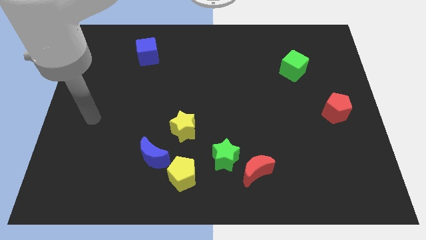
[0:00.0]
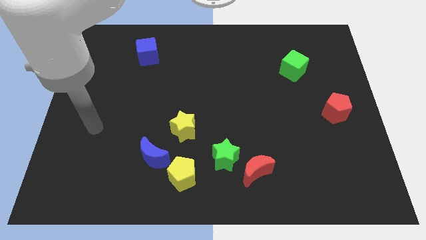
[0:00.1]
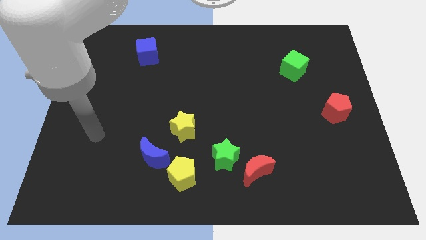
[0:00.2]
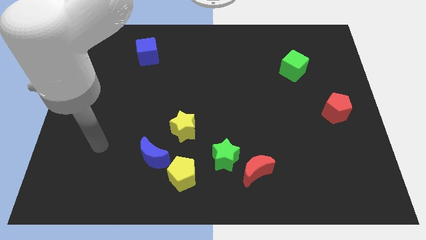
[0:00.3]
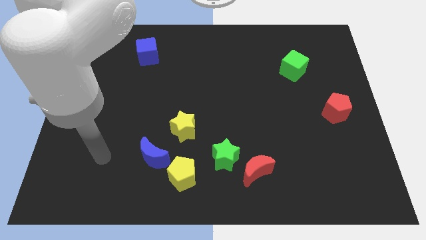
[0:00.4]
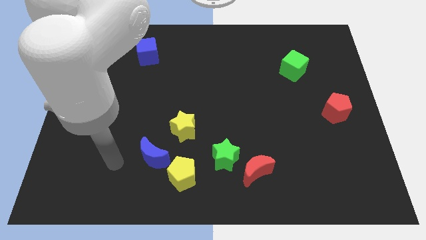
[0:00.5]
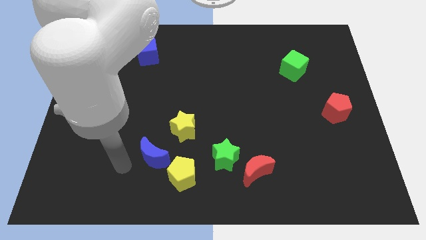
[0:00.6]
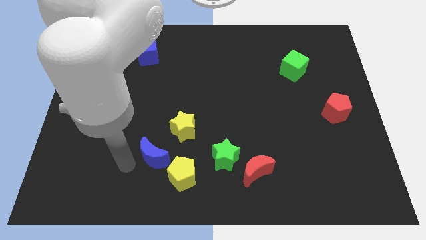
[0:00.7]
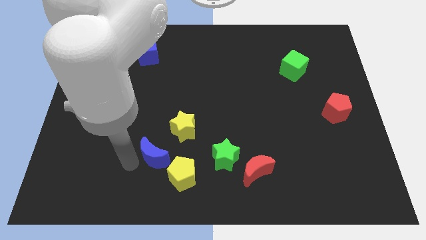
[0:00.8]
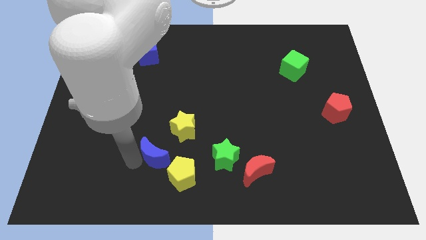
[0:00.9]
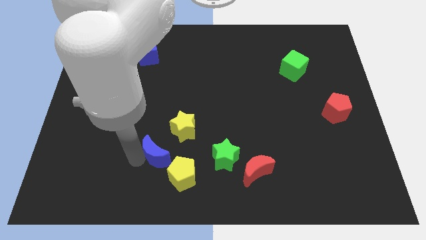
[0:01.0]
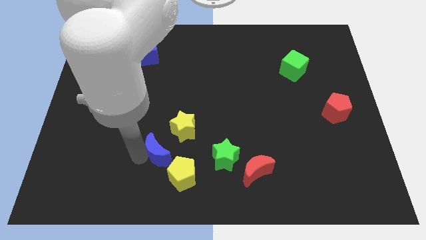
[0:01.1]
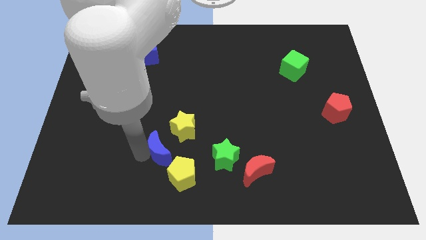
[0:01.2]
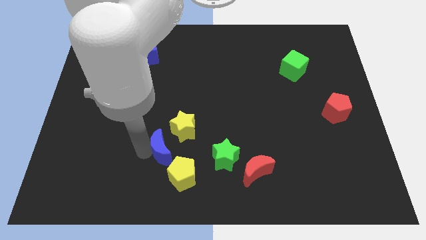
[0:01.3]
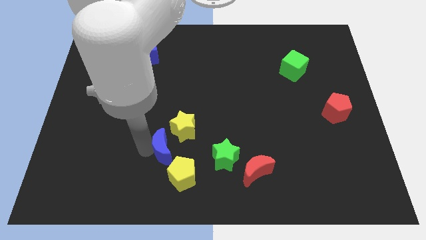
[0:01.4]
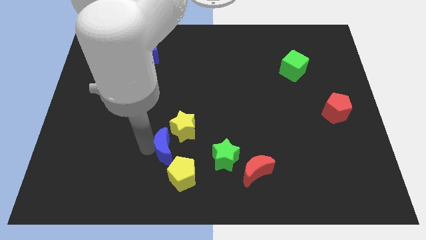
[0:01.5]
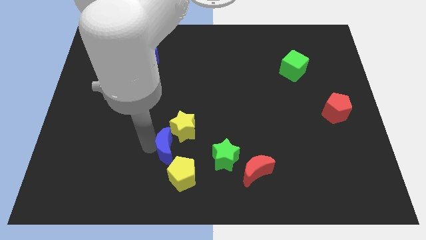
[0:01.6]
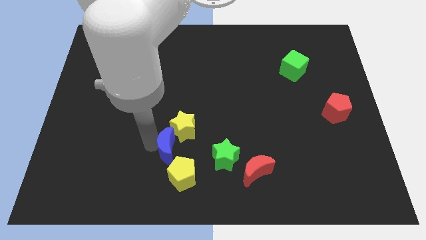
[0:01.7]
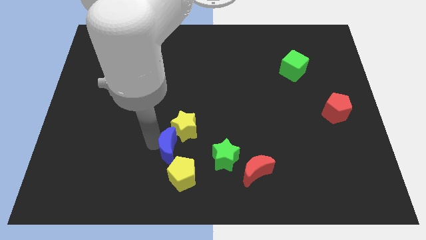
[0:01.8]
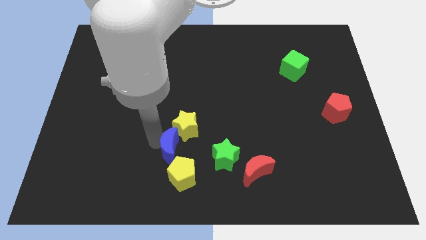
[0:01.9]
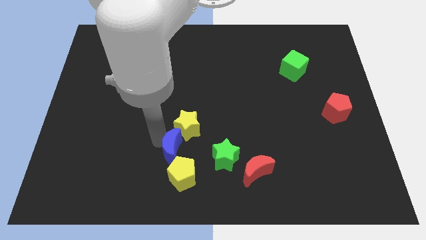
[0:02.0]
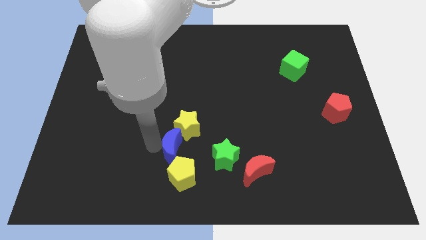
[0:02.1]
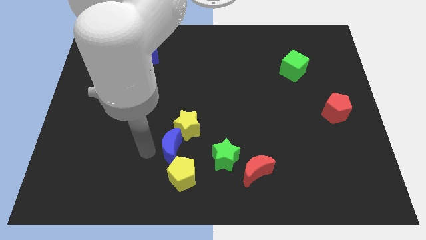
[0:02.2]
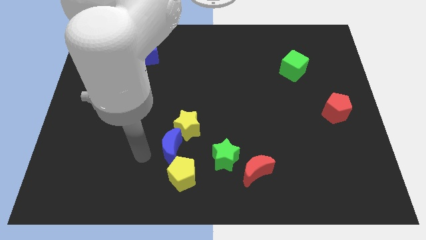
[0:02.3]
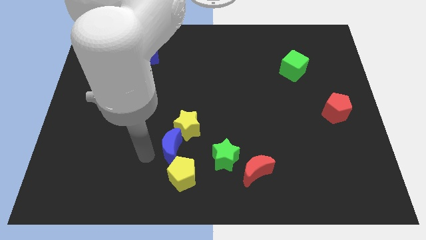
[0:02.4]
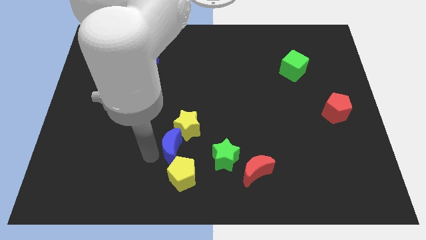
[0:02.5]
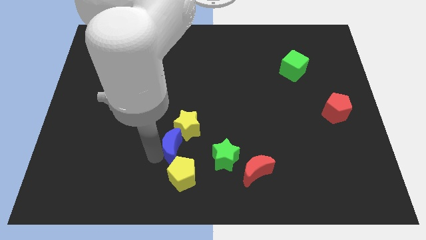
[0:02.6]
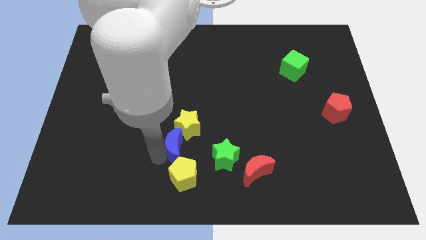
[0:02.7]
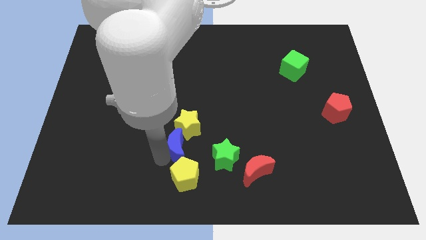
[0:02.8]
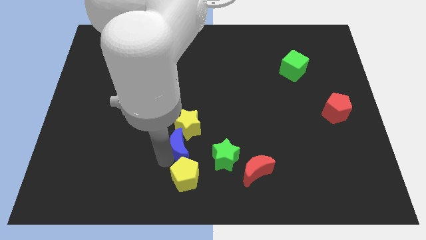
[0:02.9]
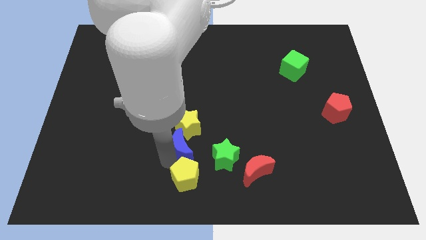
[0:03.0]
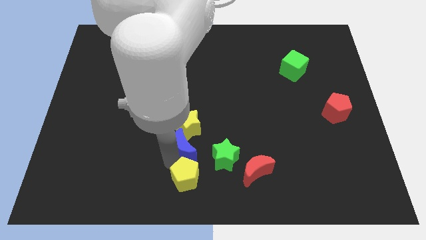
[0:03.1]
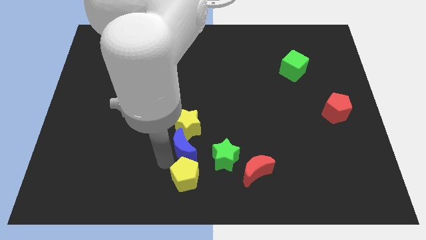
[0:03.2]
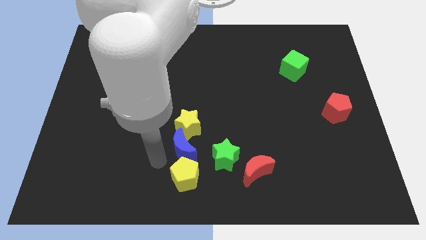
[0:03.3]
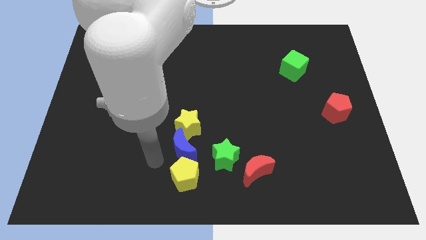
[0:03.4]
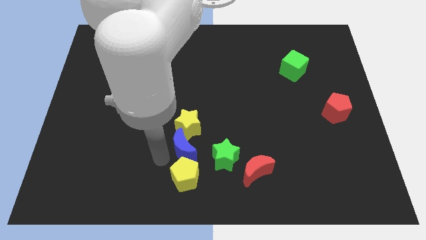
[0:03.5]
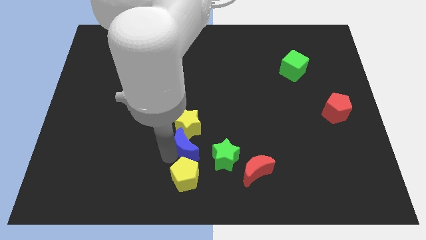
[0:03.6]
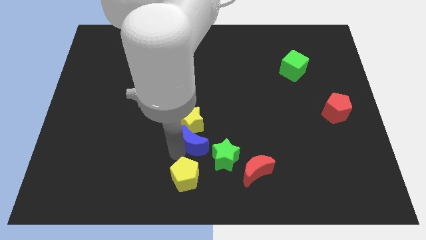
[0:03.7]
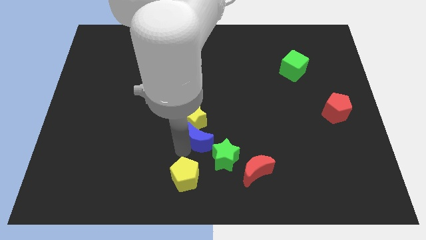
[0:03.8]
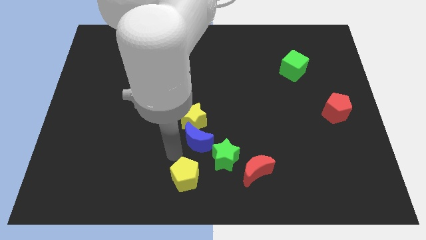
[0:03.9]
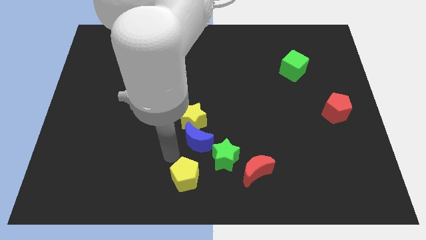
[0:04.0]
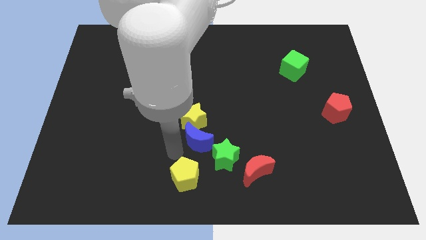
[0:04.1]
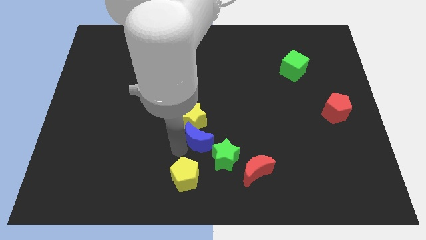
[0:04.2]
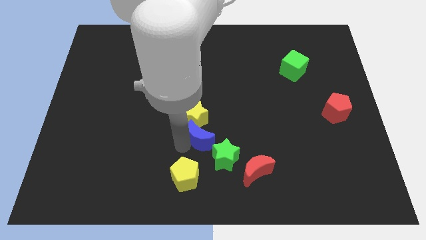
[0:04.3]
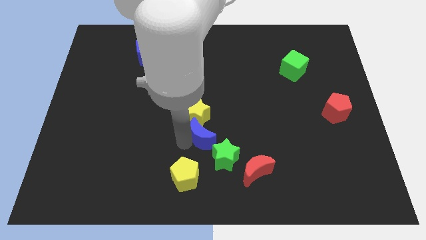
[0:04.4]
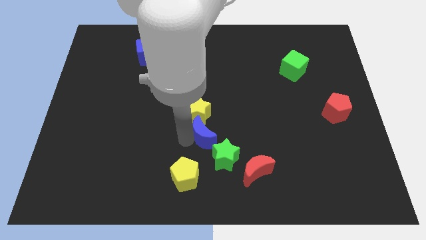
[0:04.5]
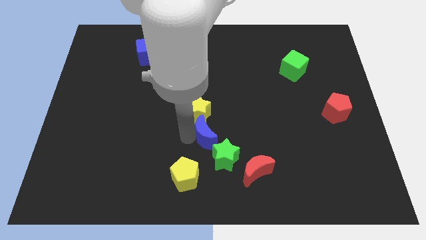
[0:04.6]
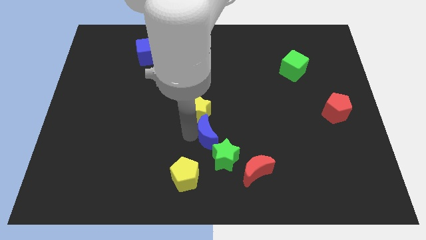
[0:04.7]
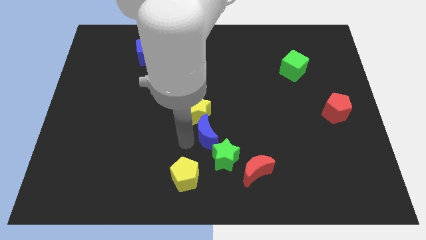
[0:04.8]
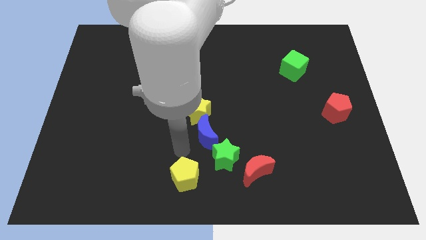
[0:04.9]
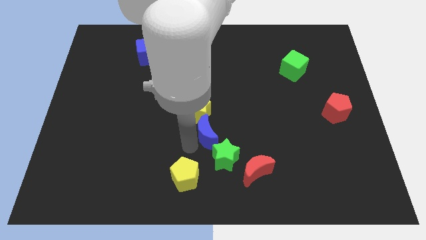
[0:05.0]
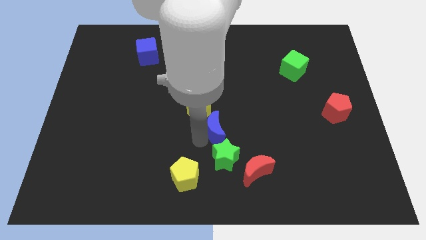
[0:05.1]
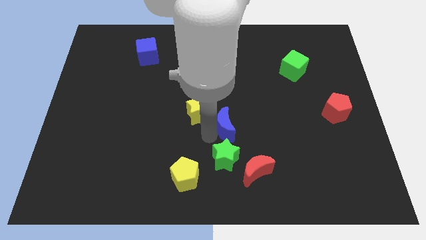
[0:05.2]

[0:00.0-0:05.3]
push the blue moon to the right side of the yellow star

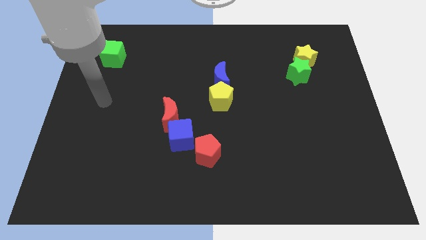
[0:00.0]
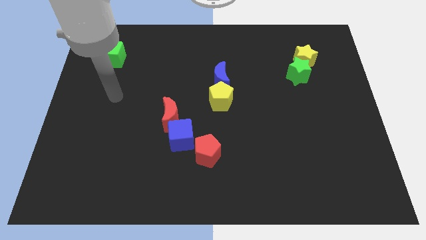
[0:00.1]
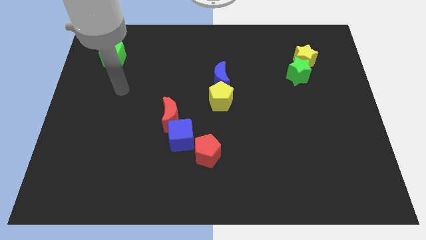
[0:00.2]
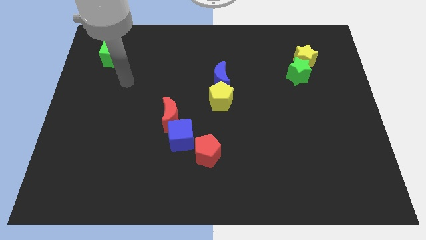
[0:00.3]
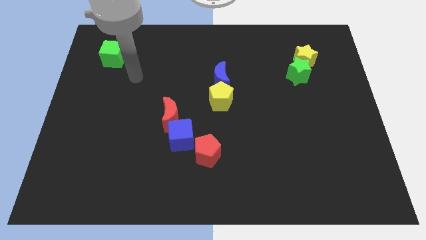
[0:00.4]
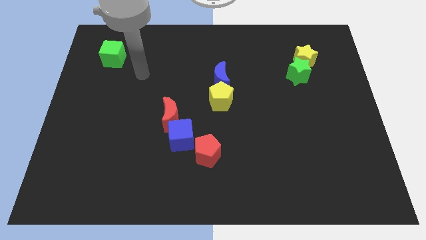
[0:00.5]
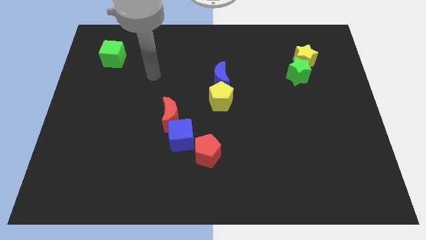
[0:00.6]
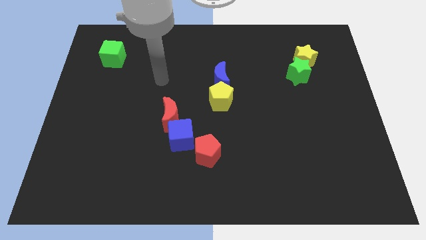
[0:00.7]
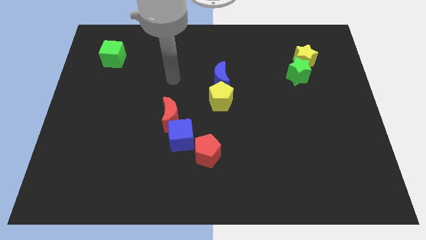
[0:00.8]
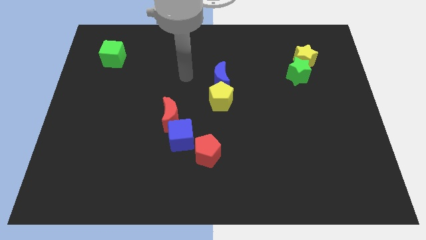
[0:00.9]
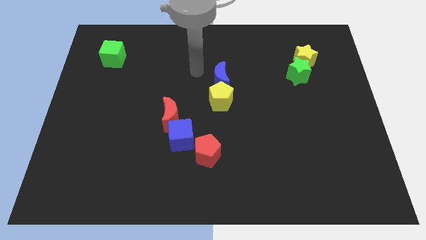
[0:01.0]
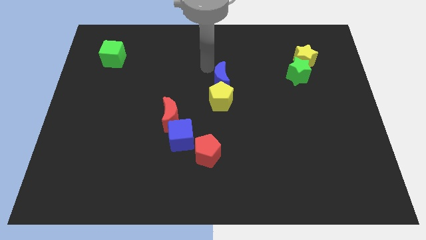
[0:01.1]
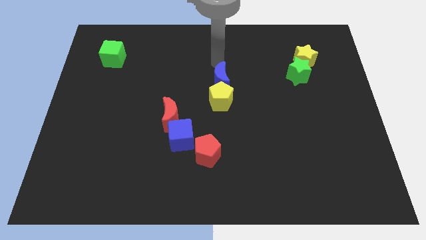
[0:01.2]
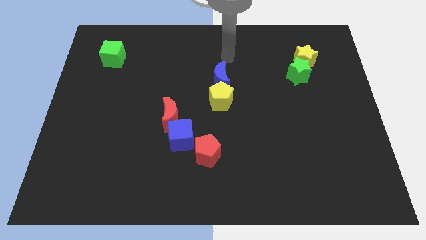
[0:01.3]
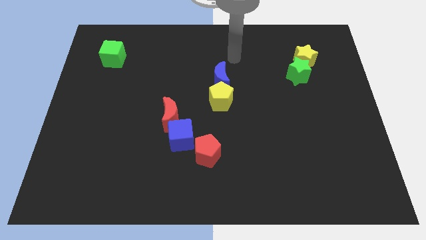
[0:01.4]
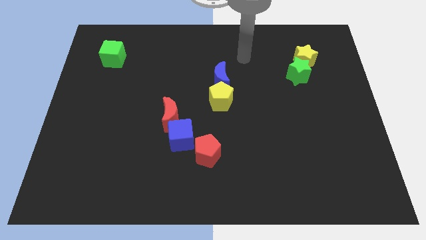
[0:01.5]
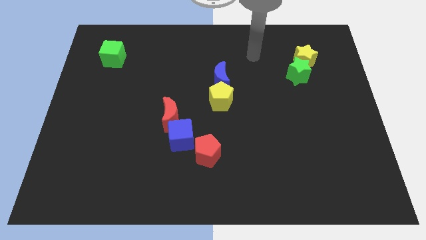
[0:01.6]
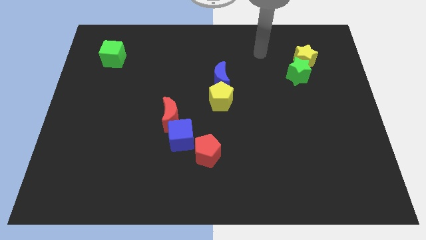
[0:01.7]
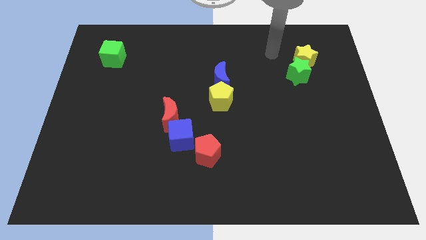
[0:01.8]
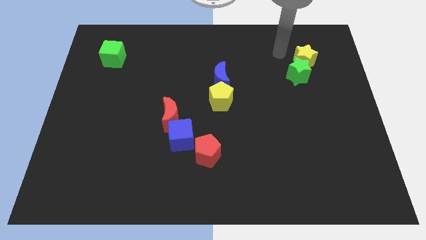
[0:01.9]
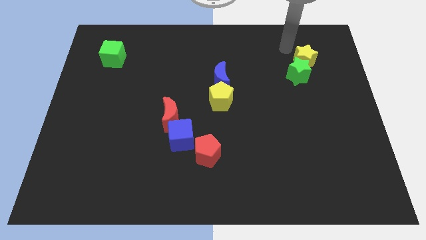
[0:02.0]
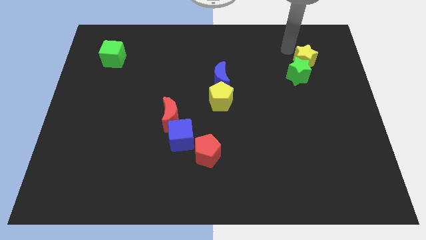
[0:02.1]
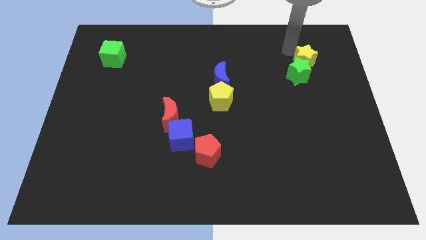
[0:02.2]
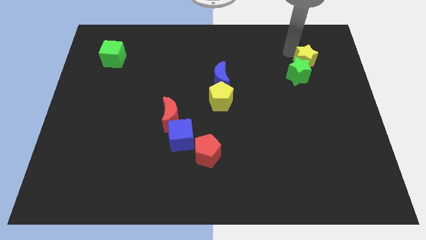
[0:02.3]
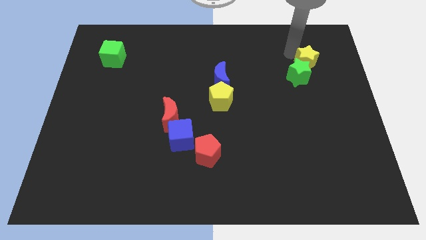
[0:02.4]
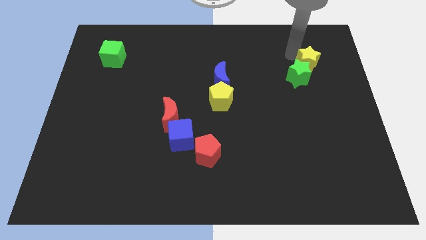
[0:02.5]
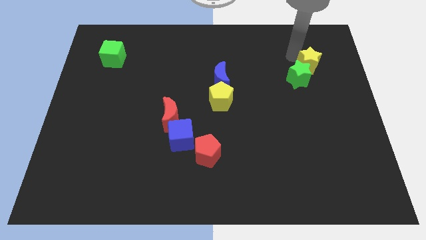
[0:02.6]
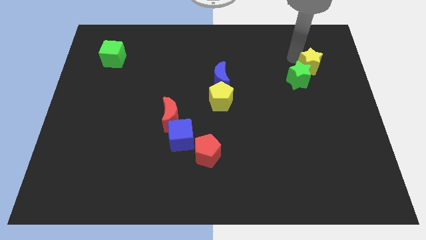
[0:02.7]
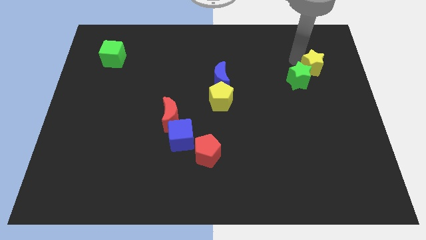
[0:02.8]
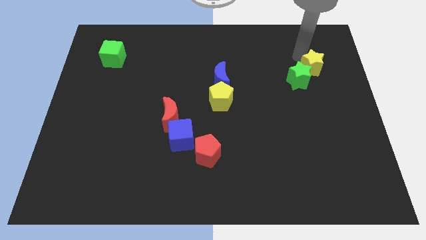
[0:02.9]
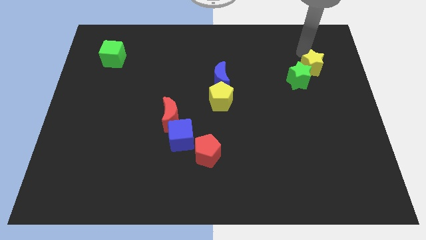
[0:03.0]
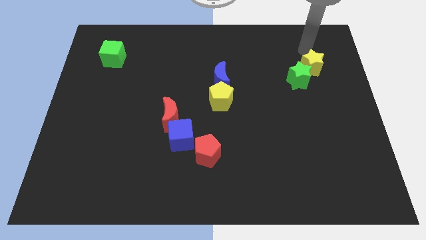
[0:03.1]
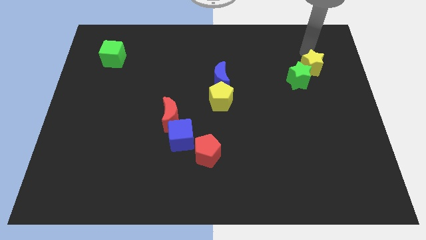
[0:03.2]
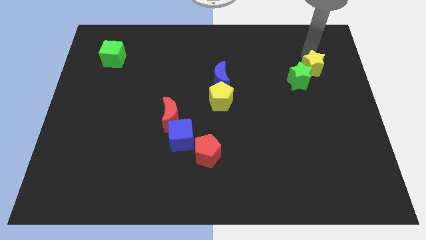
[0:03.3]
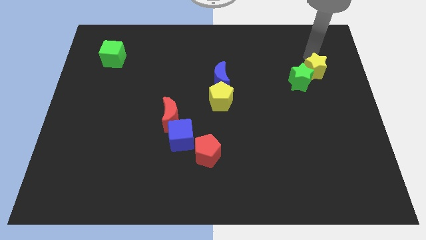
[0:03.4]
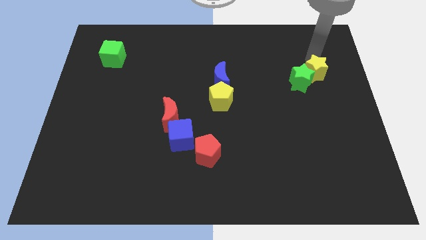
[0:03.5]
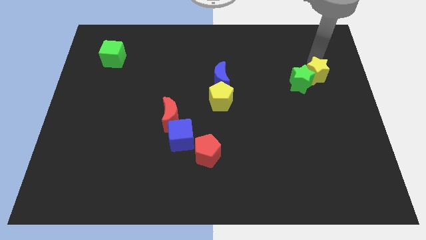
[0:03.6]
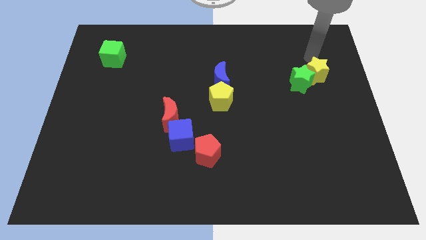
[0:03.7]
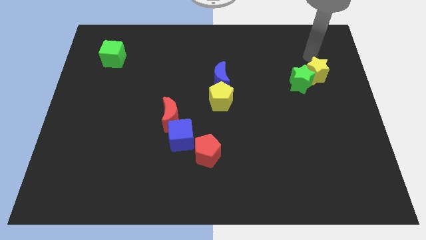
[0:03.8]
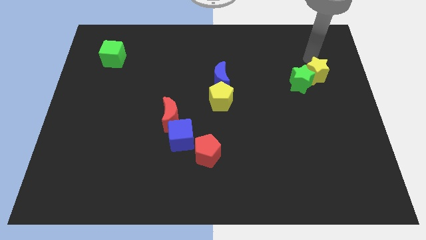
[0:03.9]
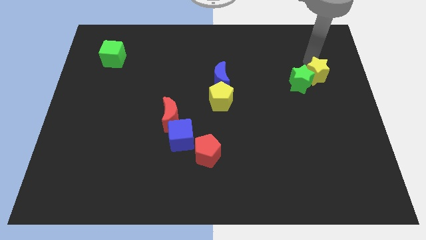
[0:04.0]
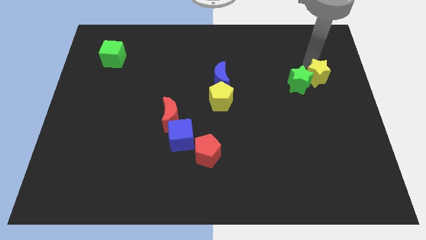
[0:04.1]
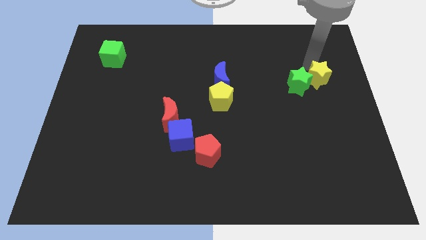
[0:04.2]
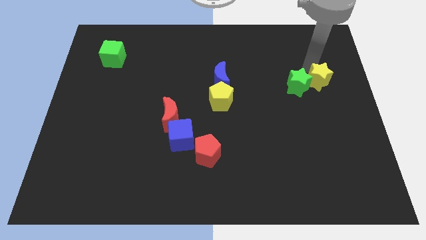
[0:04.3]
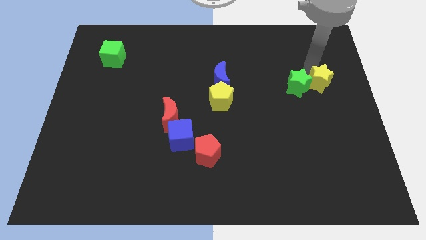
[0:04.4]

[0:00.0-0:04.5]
move the yellow star diagonally down and to the right of the green star
